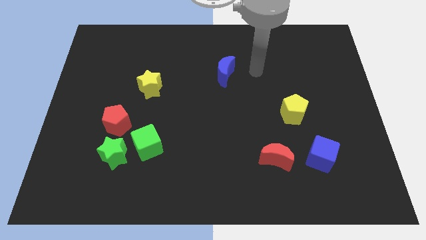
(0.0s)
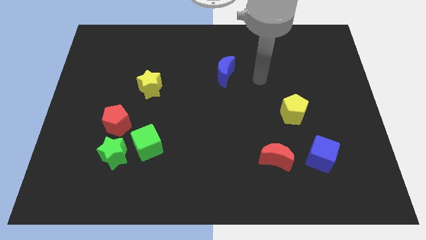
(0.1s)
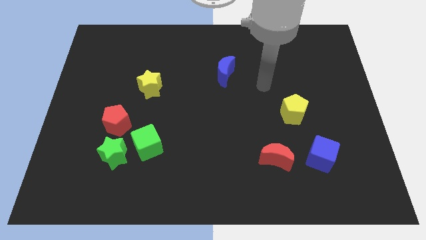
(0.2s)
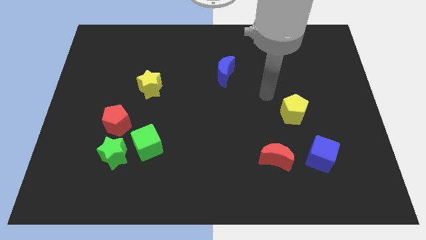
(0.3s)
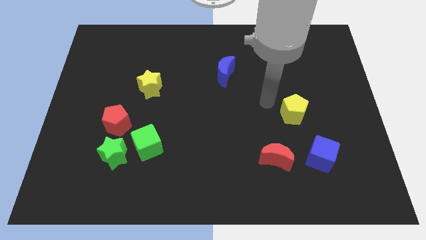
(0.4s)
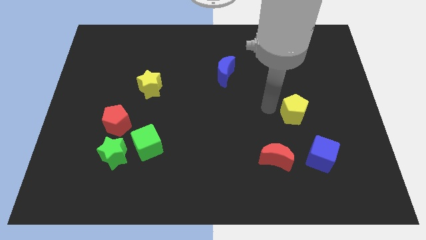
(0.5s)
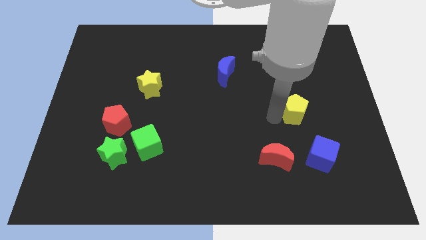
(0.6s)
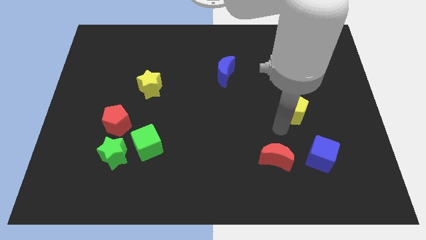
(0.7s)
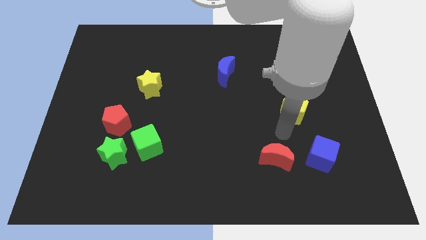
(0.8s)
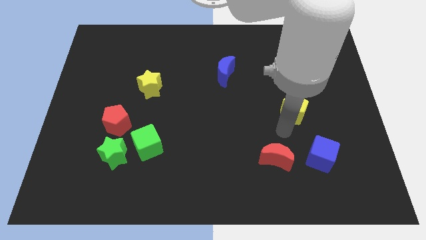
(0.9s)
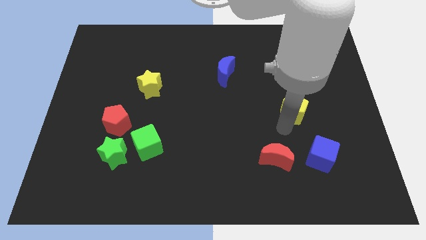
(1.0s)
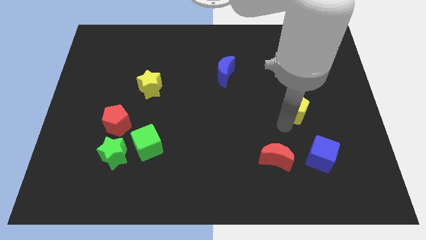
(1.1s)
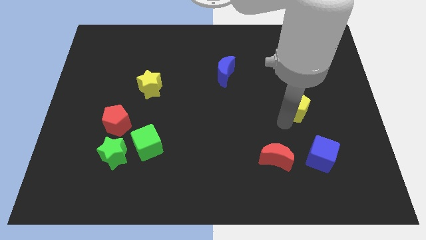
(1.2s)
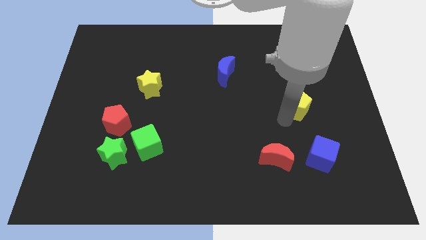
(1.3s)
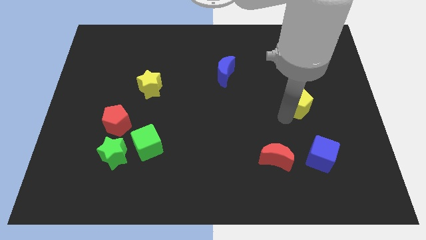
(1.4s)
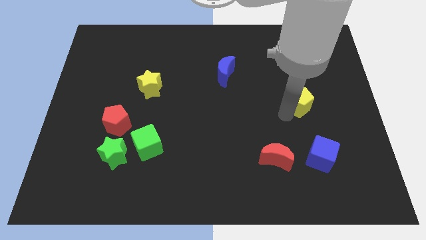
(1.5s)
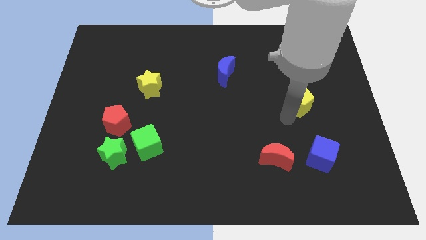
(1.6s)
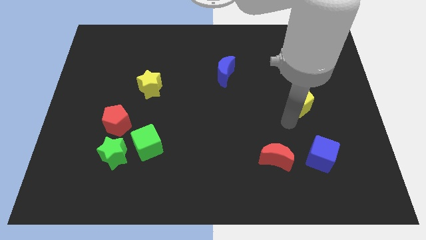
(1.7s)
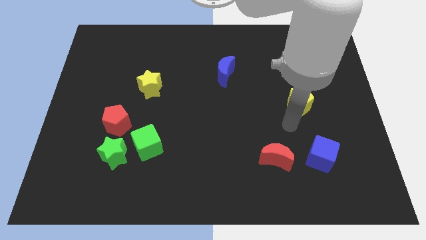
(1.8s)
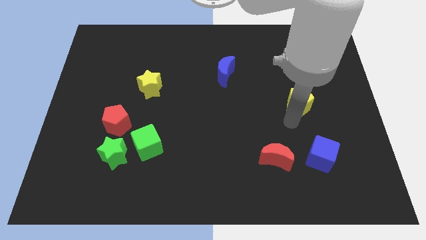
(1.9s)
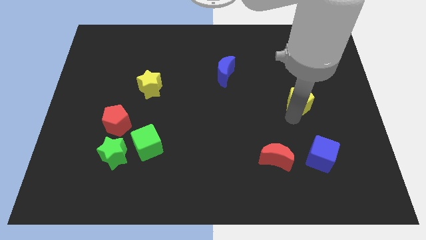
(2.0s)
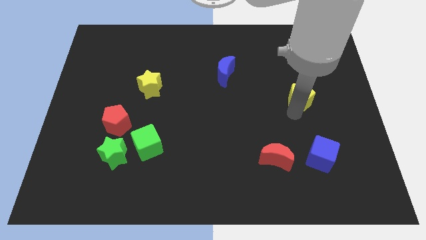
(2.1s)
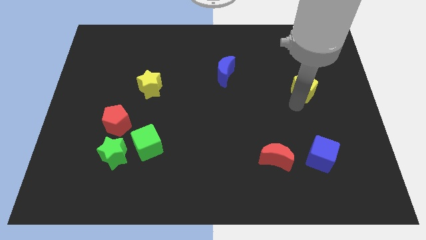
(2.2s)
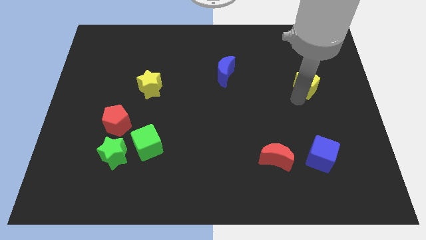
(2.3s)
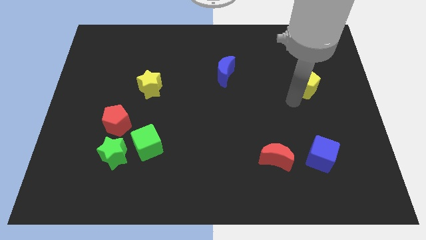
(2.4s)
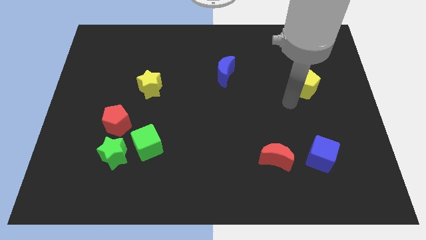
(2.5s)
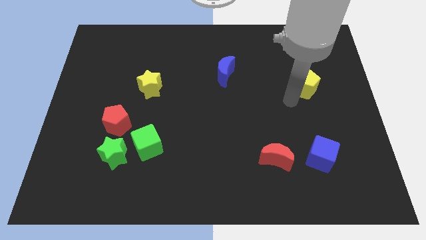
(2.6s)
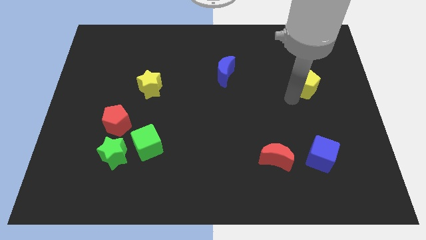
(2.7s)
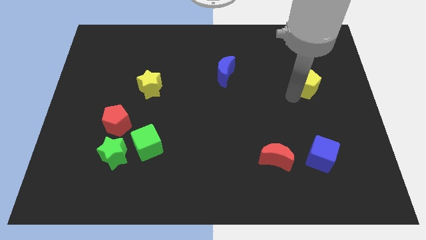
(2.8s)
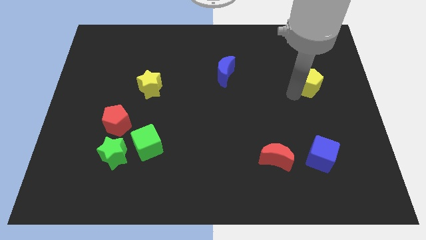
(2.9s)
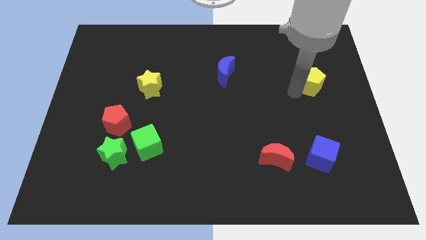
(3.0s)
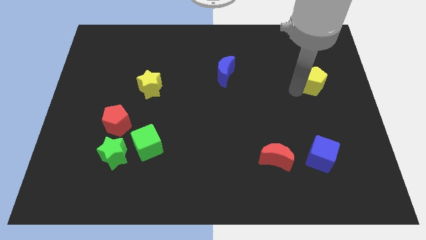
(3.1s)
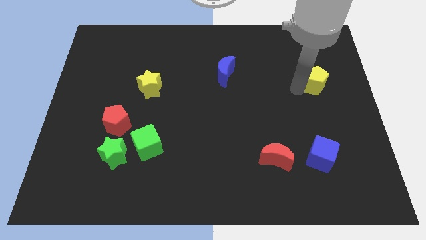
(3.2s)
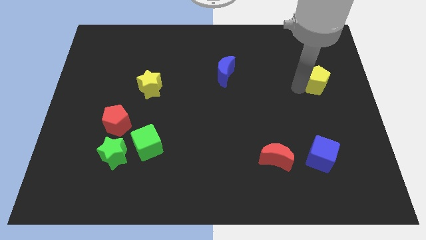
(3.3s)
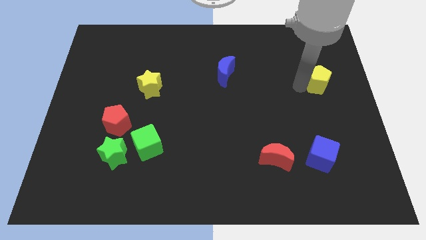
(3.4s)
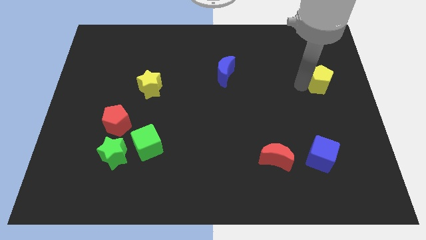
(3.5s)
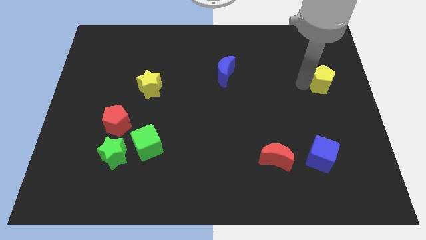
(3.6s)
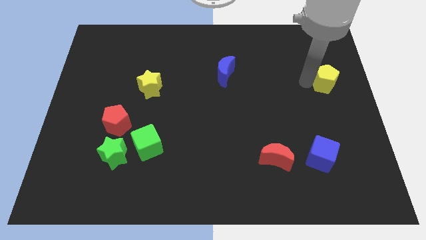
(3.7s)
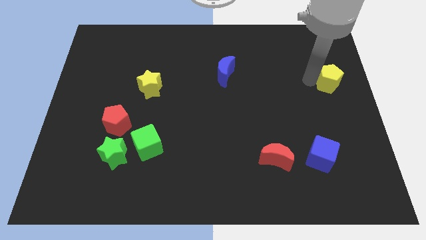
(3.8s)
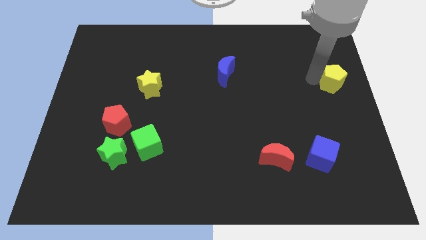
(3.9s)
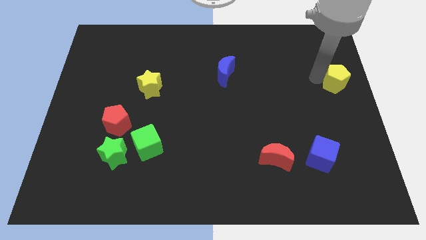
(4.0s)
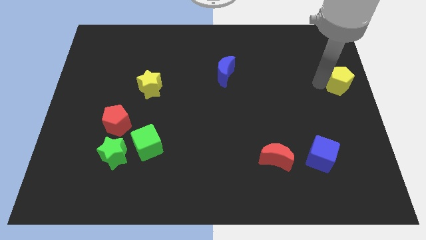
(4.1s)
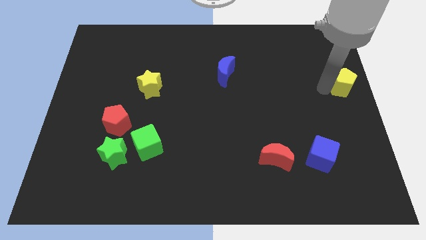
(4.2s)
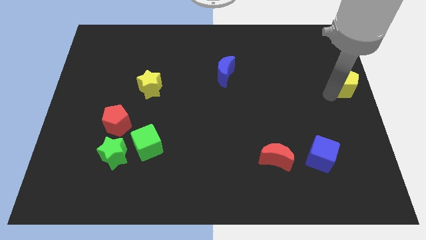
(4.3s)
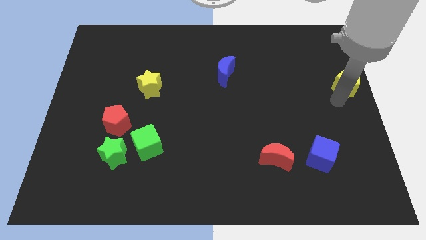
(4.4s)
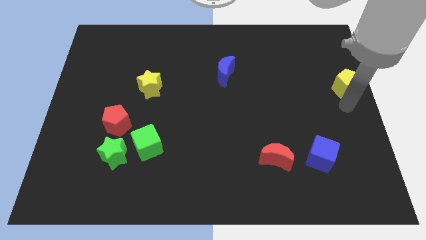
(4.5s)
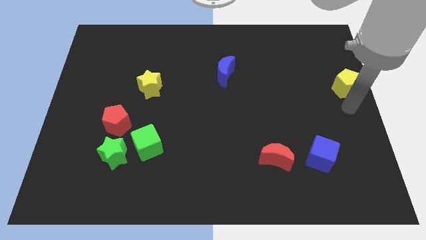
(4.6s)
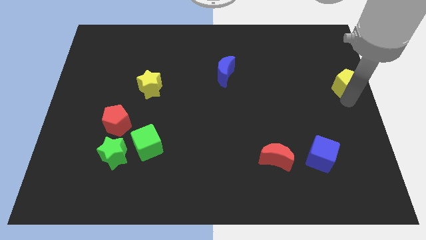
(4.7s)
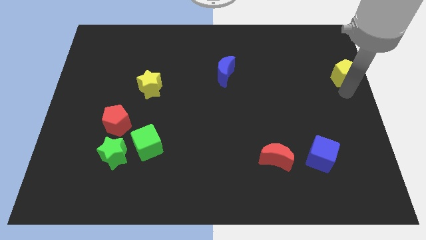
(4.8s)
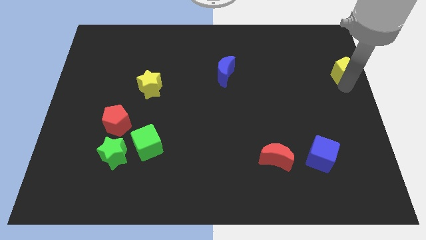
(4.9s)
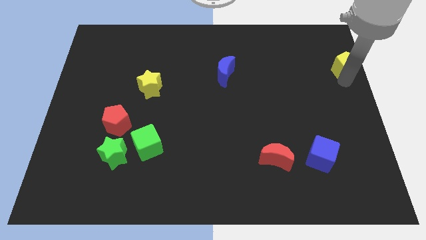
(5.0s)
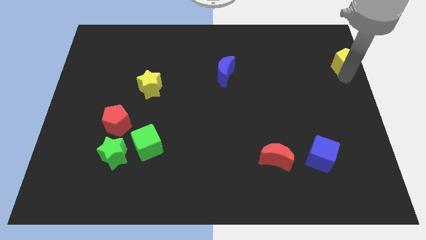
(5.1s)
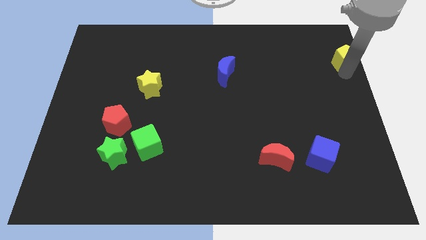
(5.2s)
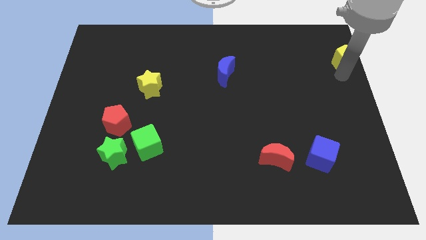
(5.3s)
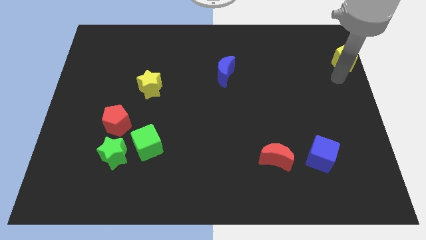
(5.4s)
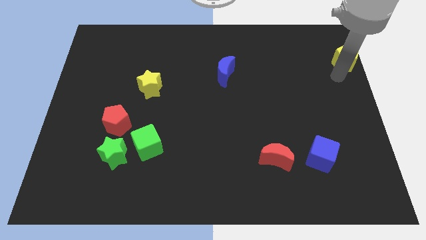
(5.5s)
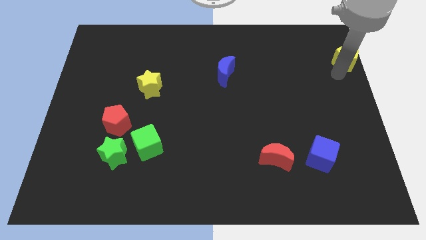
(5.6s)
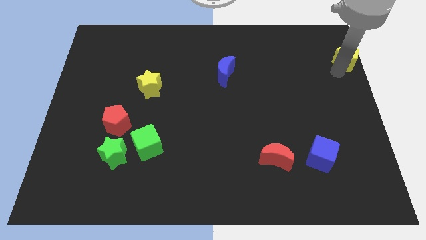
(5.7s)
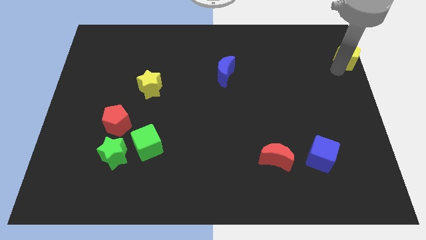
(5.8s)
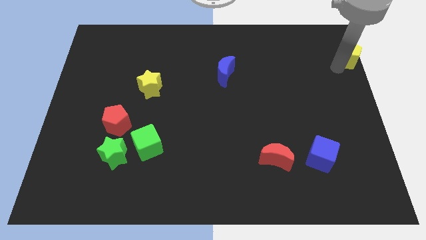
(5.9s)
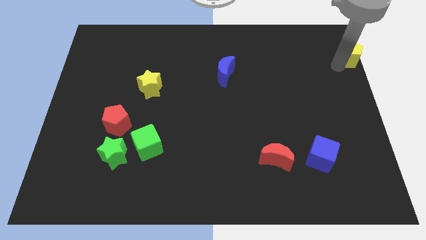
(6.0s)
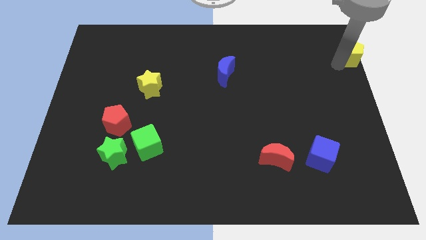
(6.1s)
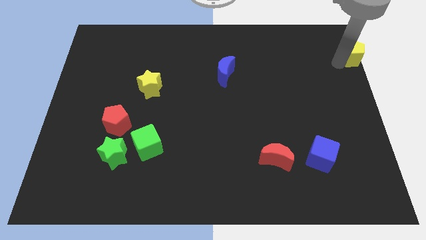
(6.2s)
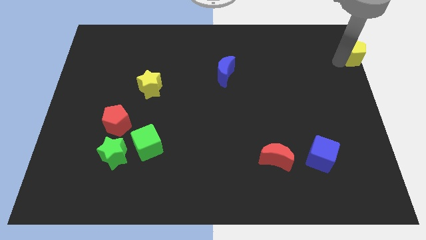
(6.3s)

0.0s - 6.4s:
put the yellow pentagon to the top right corner

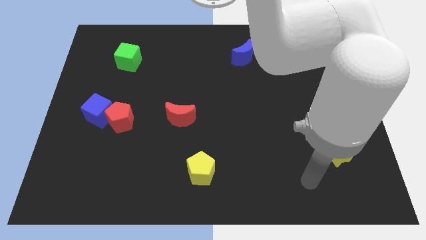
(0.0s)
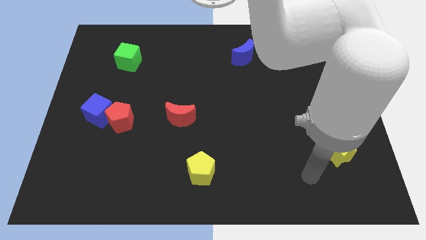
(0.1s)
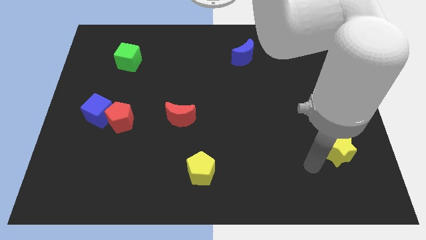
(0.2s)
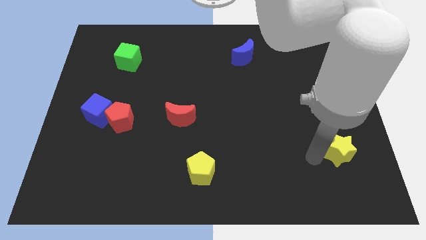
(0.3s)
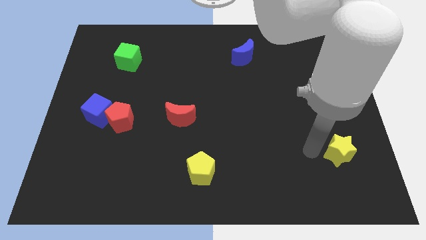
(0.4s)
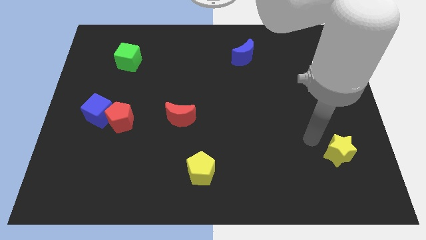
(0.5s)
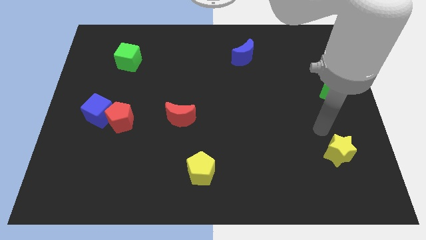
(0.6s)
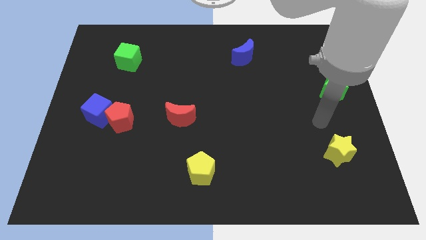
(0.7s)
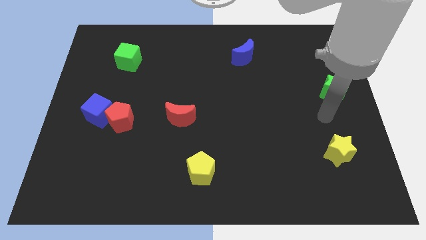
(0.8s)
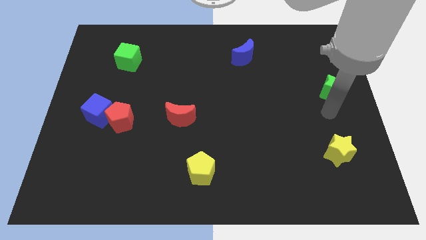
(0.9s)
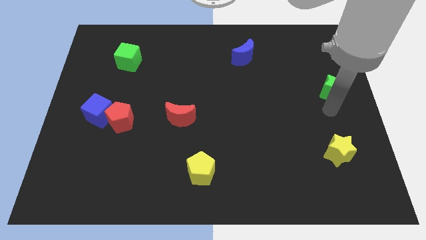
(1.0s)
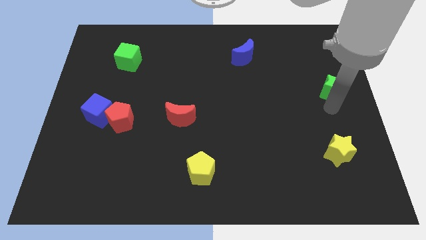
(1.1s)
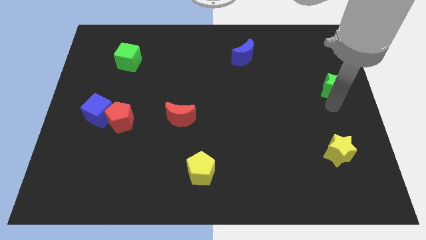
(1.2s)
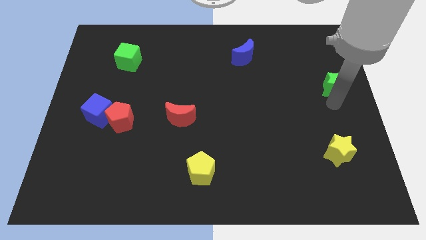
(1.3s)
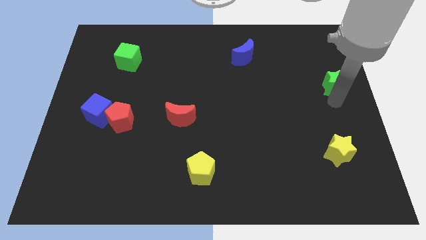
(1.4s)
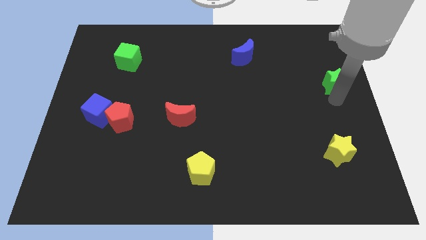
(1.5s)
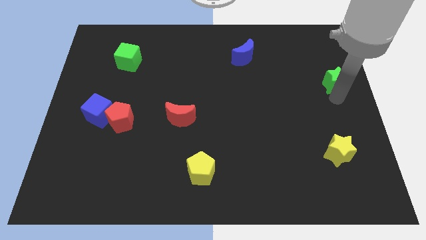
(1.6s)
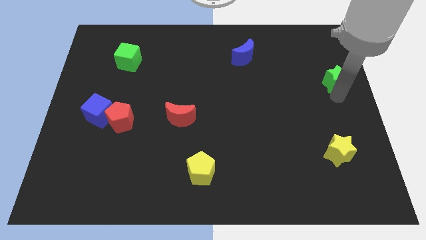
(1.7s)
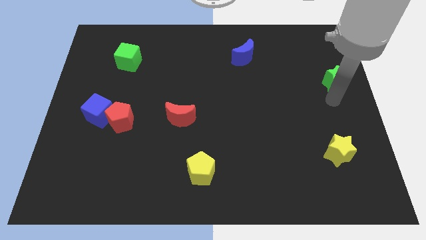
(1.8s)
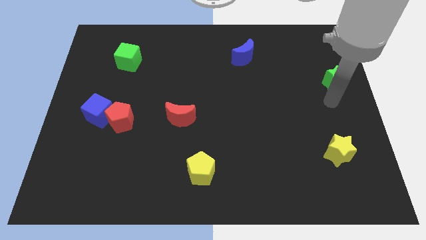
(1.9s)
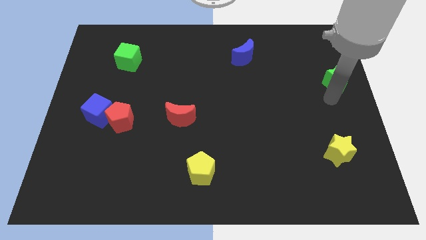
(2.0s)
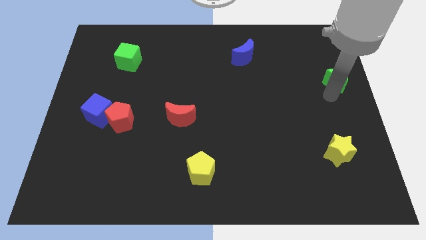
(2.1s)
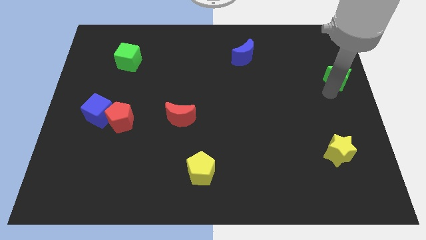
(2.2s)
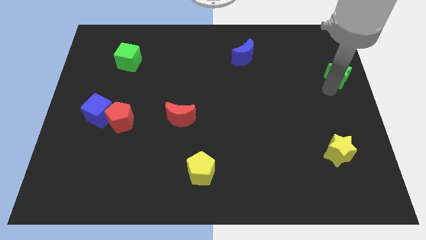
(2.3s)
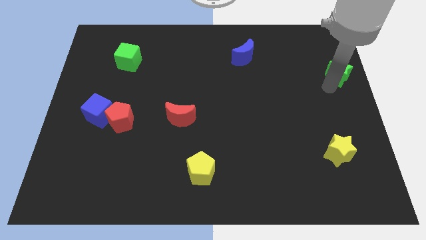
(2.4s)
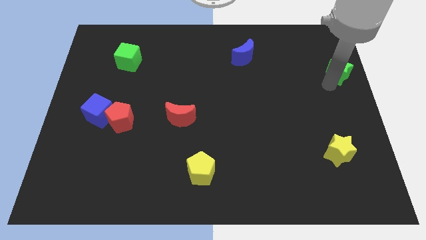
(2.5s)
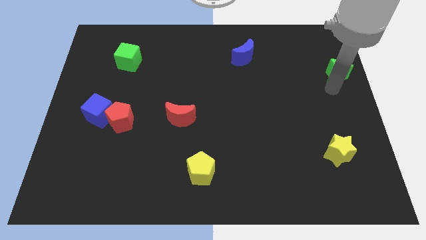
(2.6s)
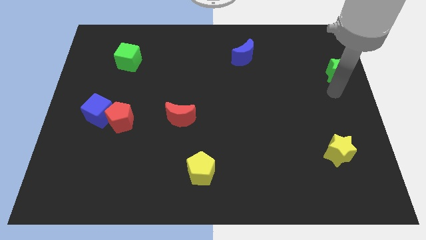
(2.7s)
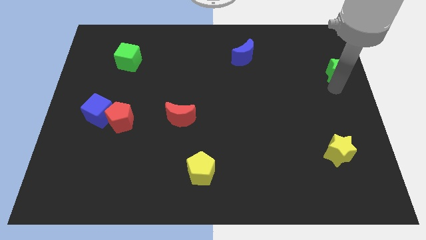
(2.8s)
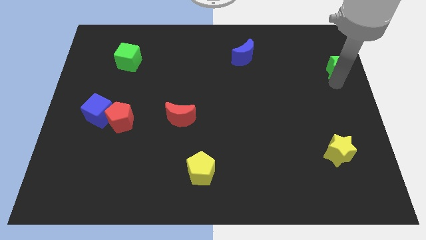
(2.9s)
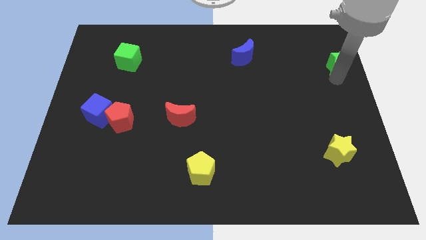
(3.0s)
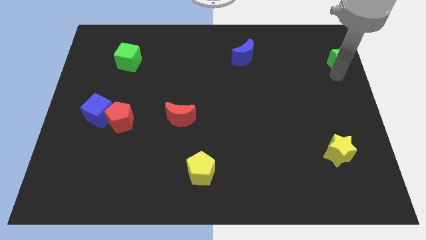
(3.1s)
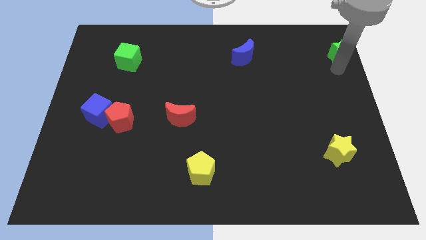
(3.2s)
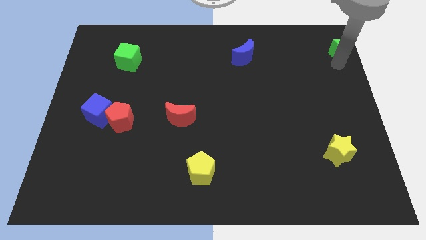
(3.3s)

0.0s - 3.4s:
push the green star to the upper right corner
